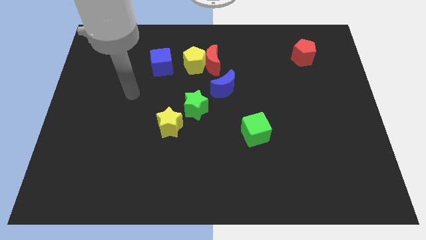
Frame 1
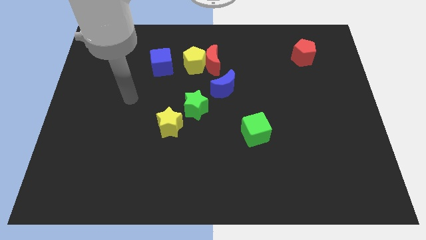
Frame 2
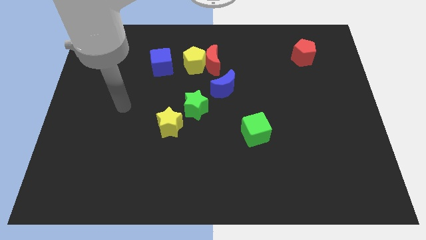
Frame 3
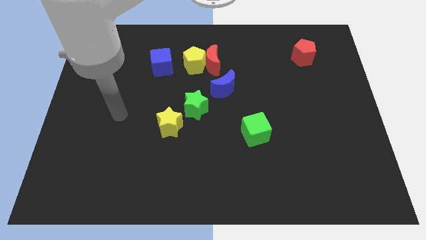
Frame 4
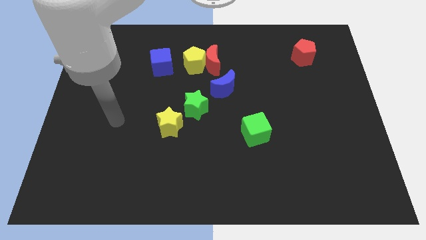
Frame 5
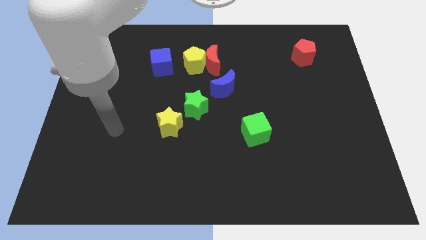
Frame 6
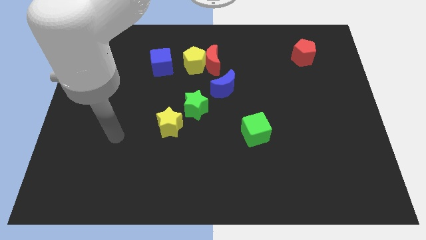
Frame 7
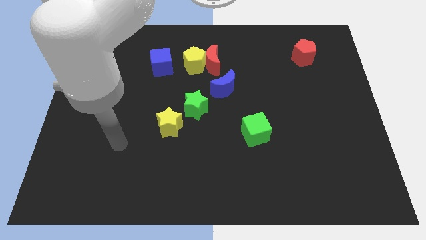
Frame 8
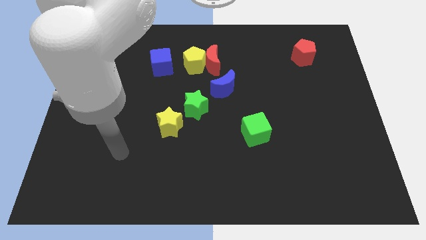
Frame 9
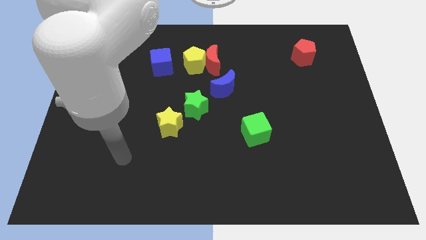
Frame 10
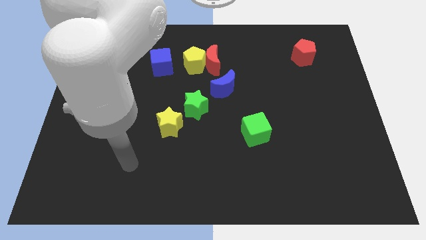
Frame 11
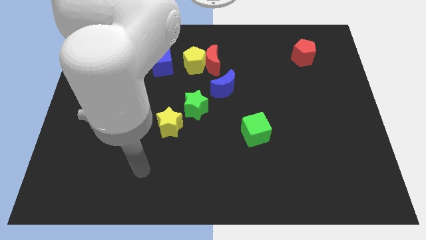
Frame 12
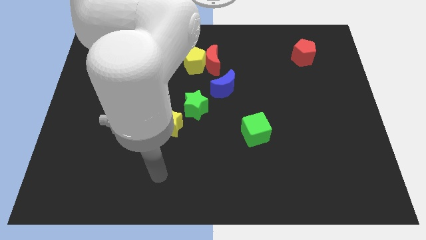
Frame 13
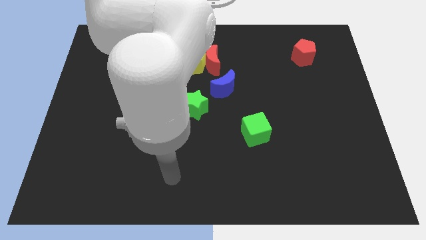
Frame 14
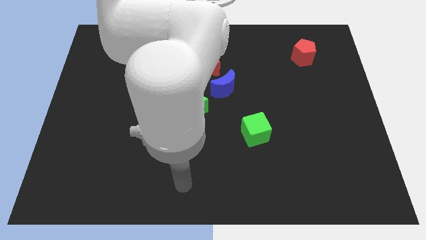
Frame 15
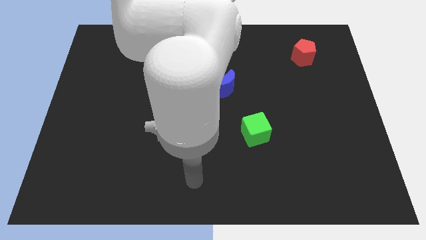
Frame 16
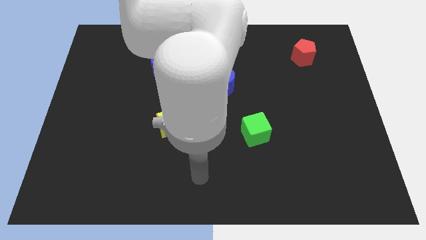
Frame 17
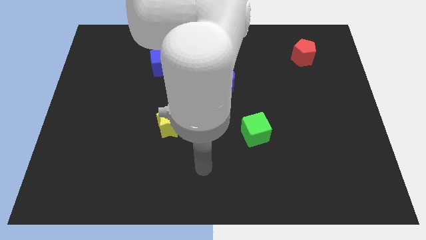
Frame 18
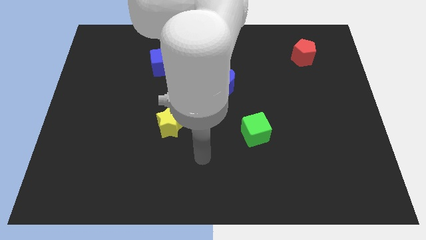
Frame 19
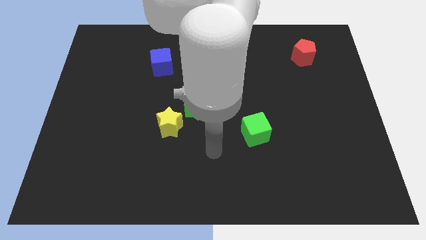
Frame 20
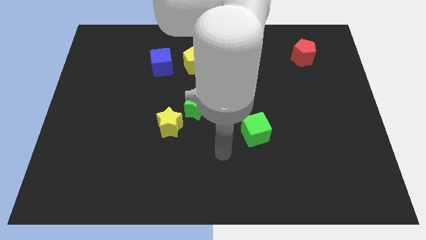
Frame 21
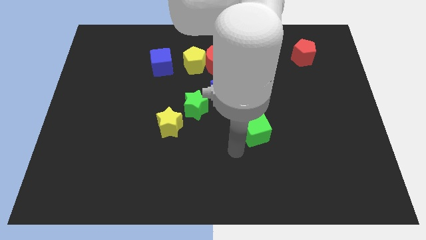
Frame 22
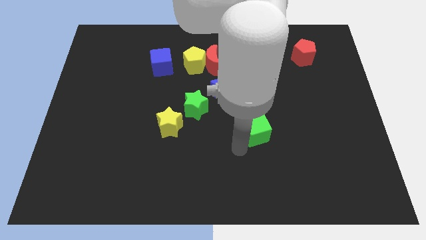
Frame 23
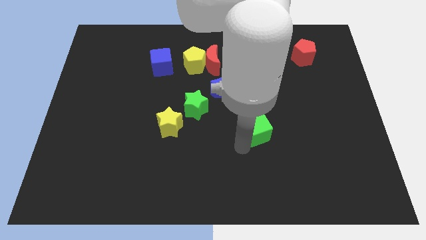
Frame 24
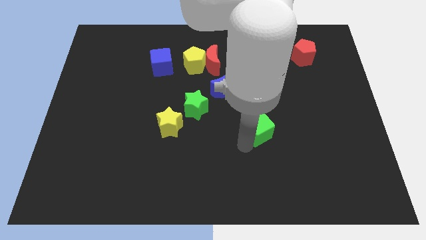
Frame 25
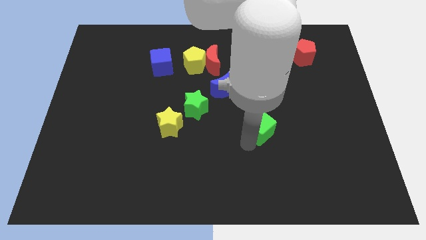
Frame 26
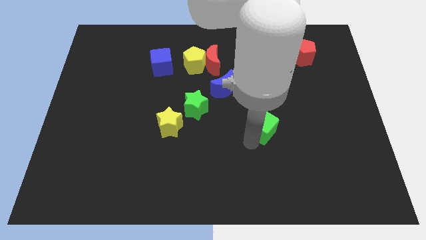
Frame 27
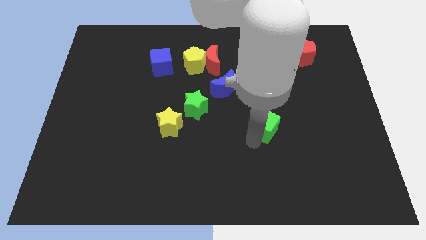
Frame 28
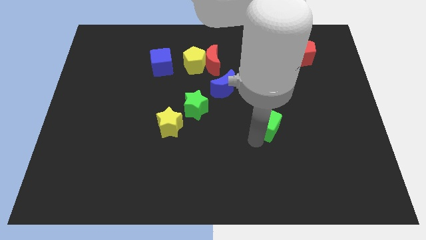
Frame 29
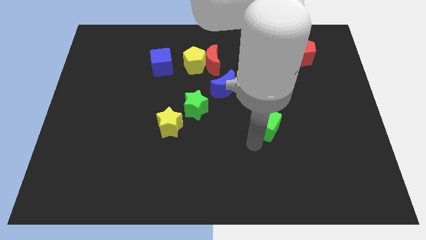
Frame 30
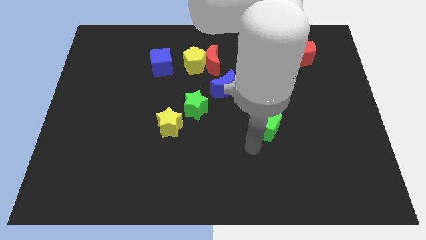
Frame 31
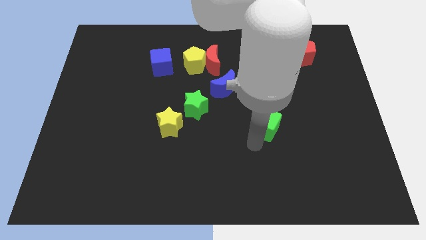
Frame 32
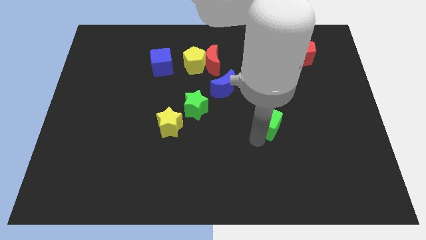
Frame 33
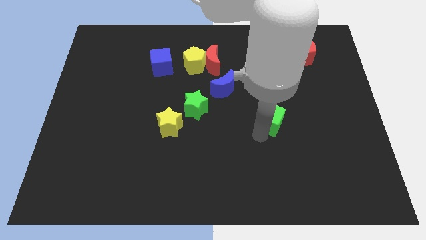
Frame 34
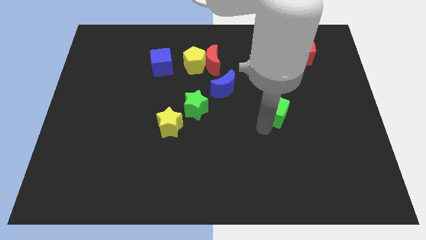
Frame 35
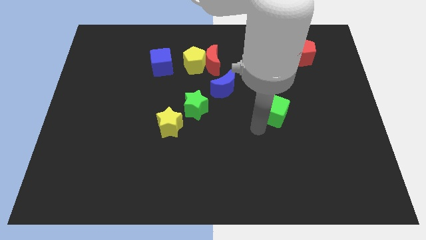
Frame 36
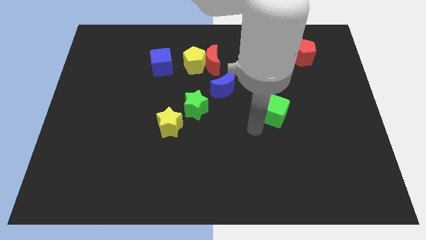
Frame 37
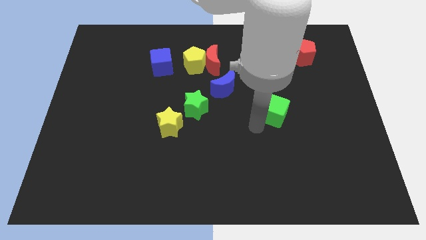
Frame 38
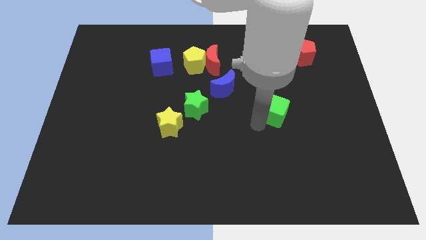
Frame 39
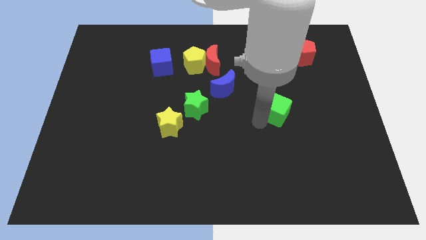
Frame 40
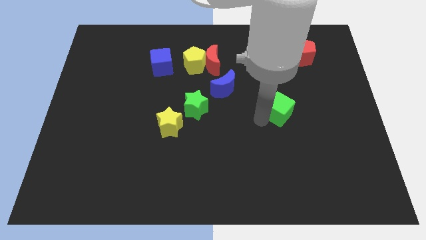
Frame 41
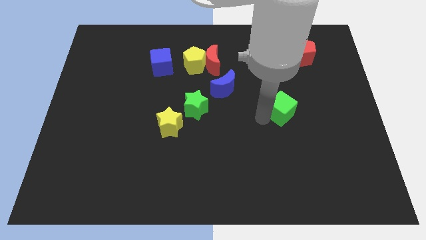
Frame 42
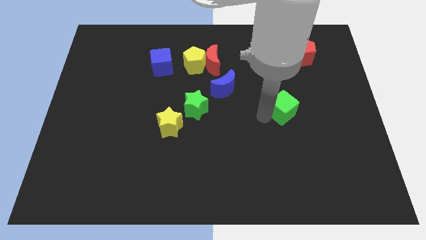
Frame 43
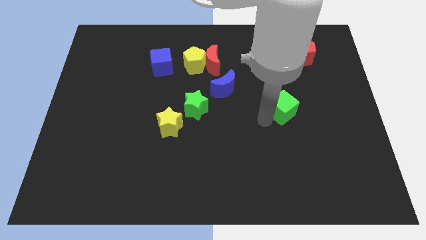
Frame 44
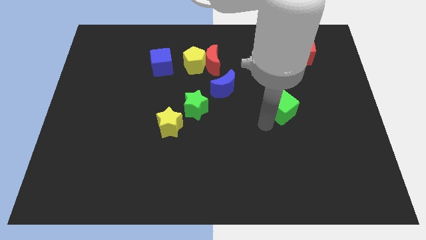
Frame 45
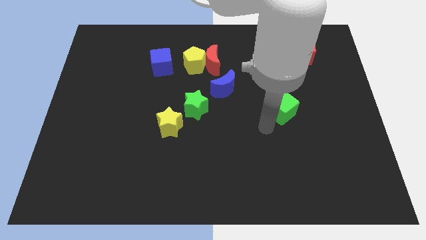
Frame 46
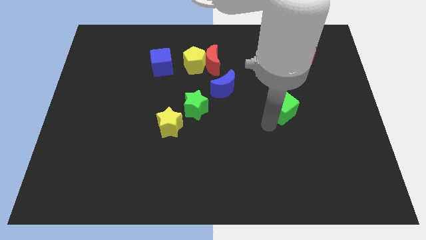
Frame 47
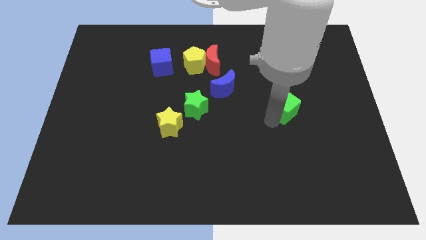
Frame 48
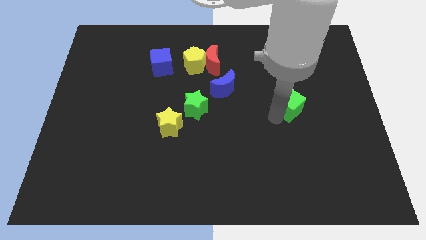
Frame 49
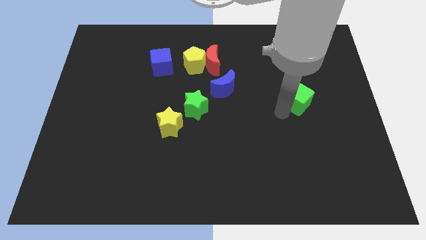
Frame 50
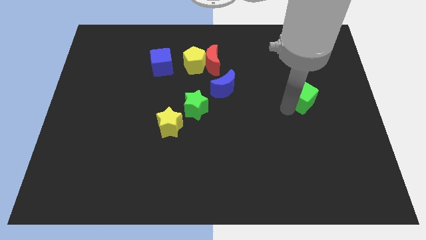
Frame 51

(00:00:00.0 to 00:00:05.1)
move the green cube to the bottom of the red pentagon

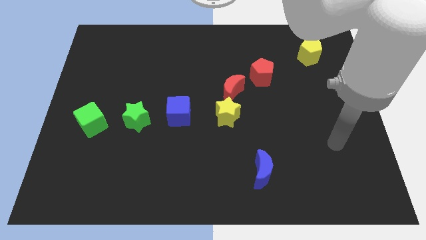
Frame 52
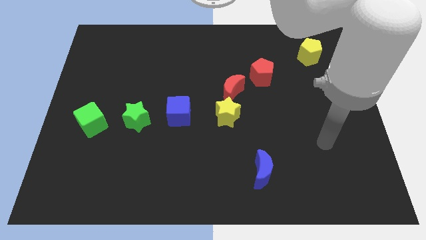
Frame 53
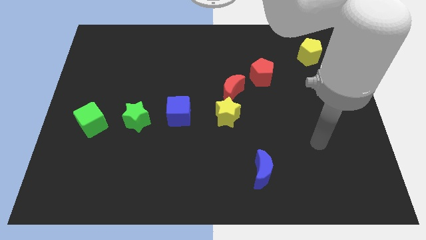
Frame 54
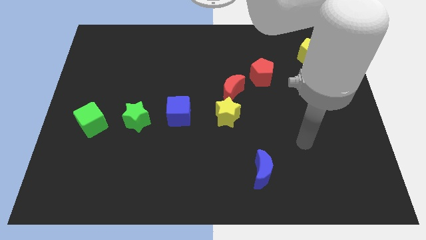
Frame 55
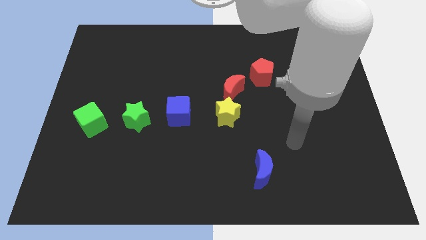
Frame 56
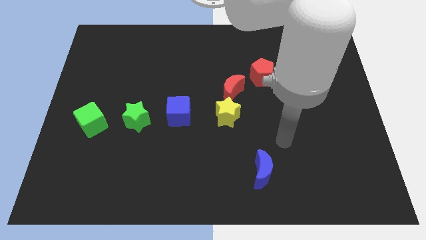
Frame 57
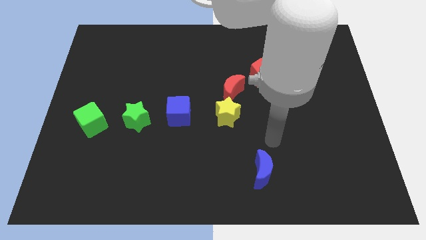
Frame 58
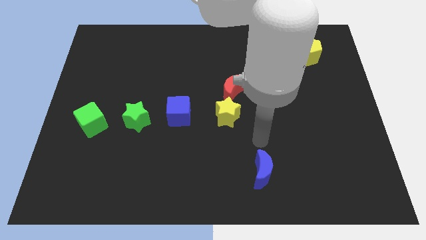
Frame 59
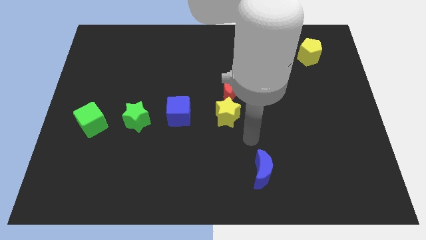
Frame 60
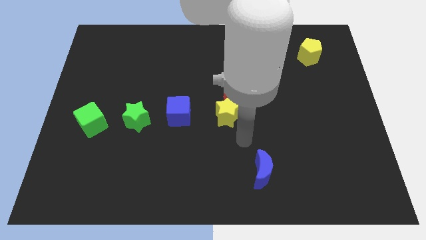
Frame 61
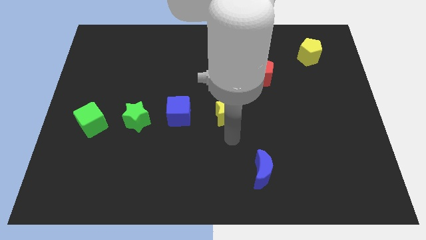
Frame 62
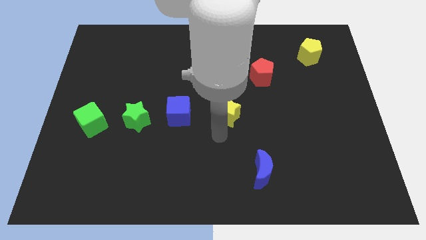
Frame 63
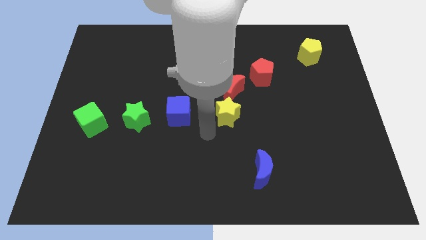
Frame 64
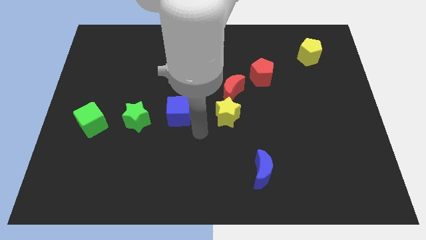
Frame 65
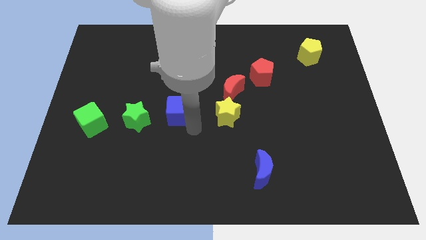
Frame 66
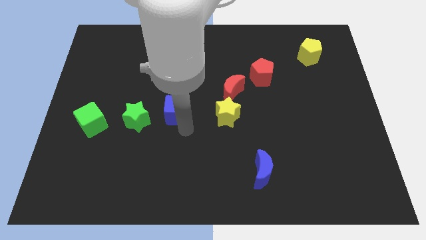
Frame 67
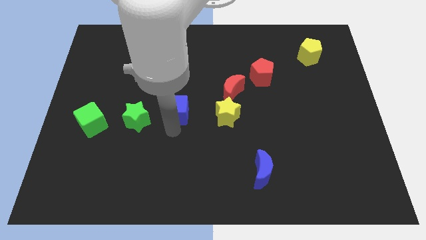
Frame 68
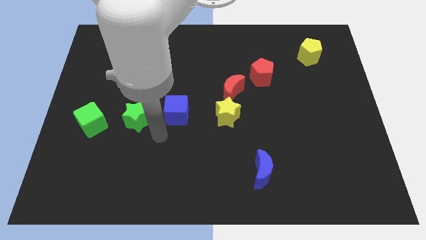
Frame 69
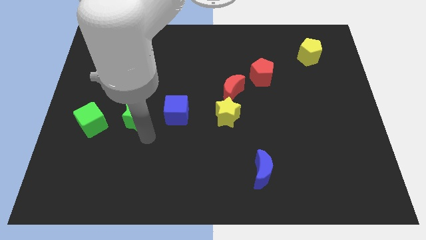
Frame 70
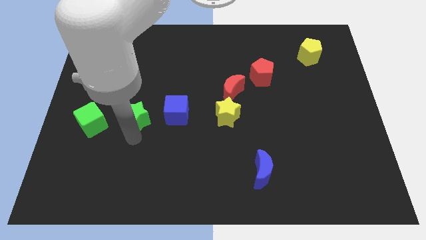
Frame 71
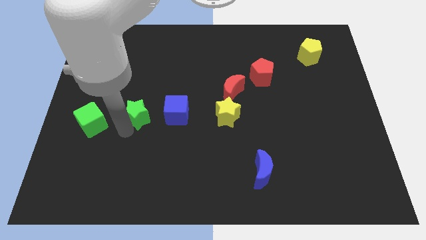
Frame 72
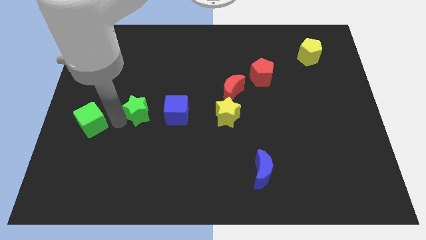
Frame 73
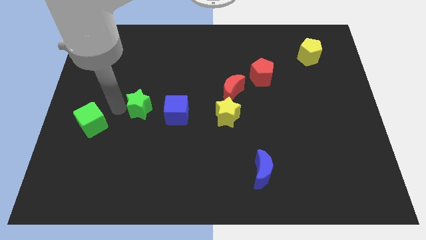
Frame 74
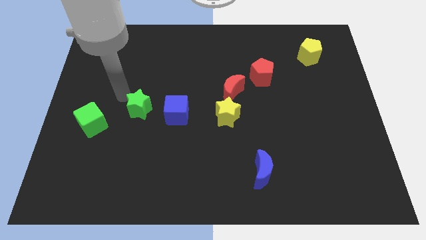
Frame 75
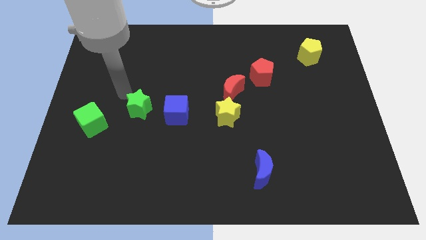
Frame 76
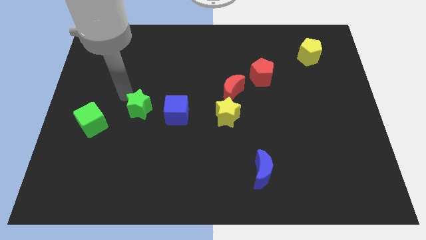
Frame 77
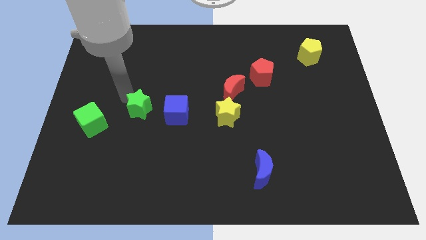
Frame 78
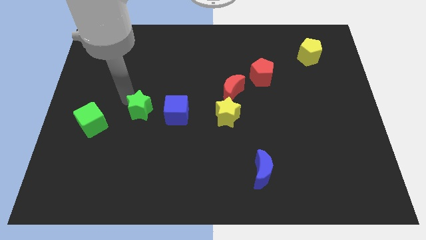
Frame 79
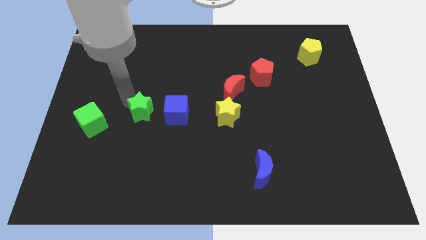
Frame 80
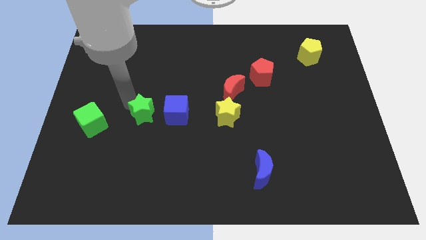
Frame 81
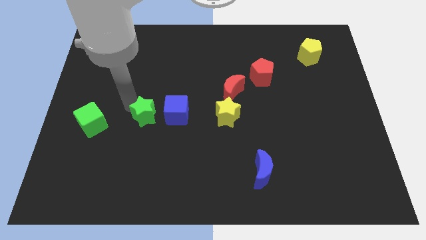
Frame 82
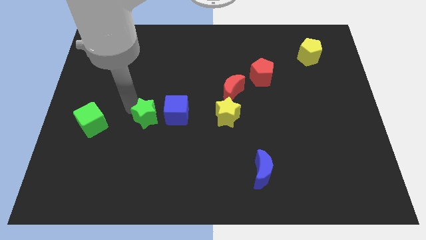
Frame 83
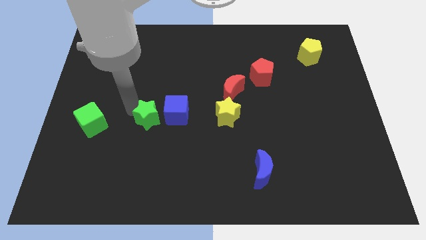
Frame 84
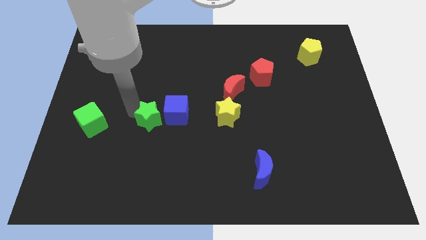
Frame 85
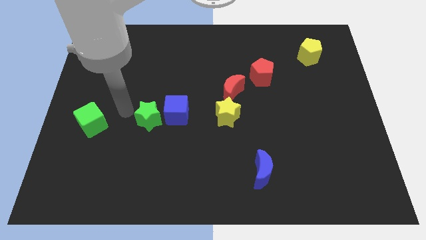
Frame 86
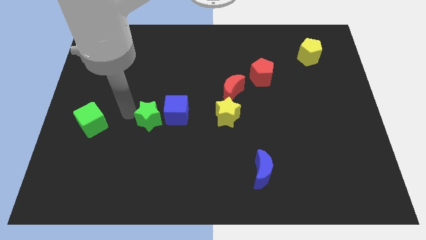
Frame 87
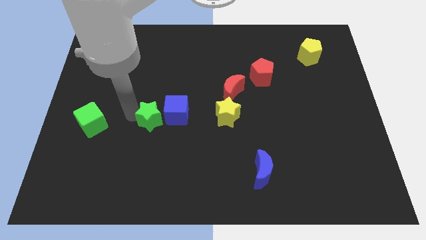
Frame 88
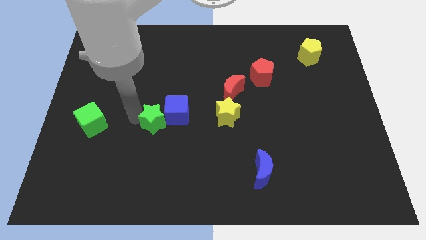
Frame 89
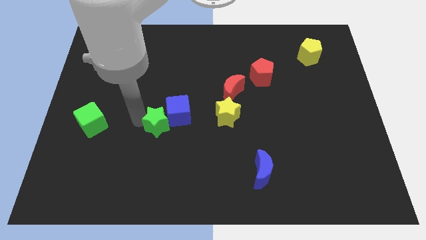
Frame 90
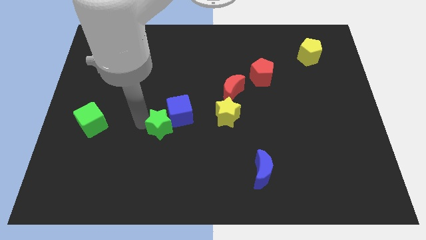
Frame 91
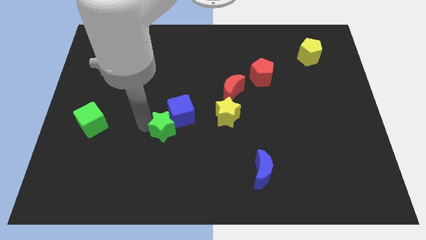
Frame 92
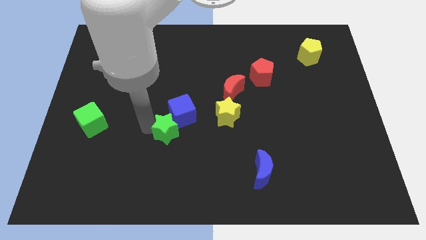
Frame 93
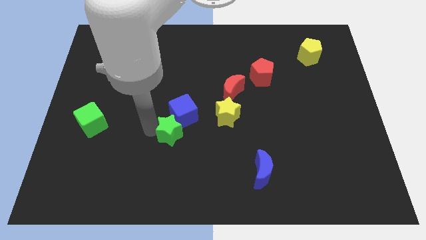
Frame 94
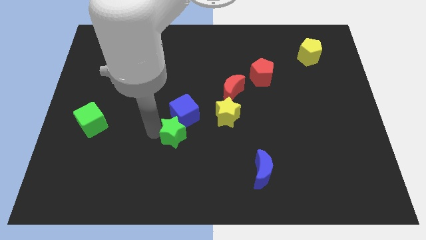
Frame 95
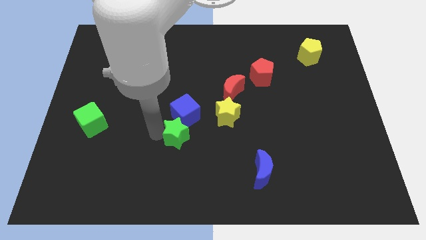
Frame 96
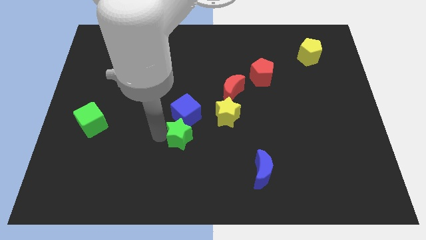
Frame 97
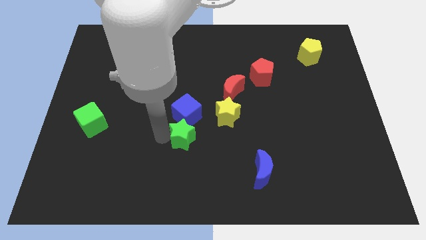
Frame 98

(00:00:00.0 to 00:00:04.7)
put the green star to the bottom right side of the blue cube
